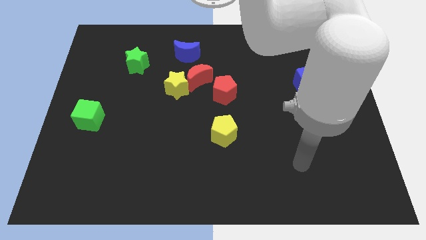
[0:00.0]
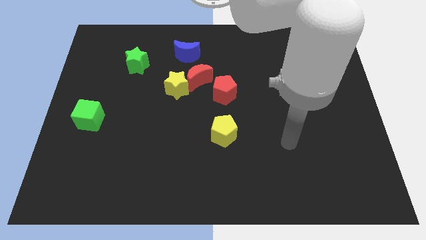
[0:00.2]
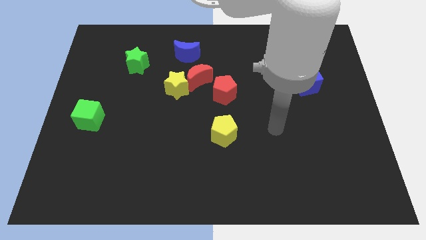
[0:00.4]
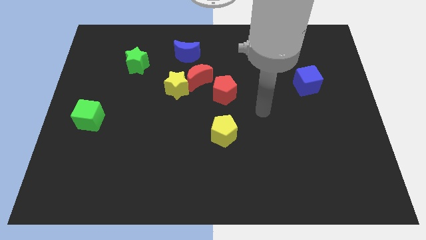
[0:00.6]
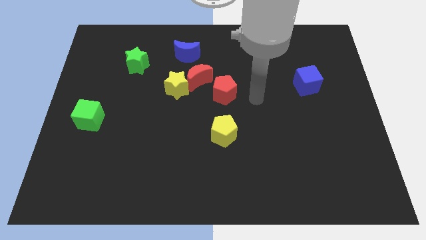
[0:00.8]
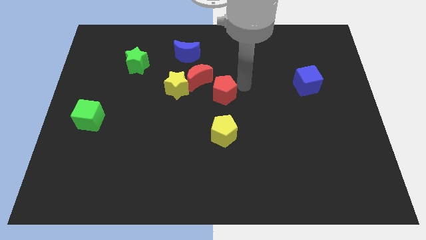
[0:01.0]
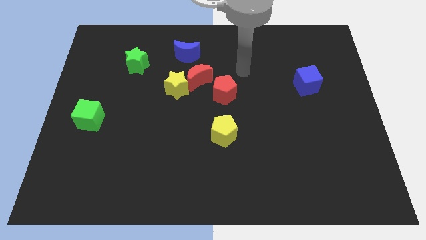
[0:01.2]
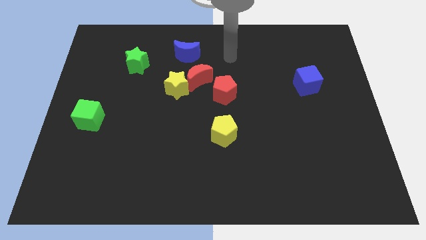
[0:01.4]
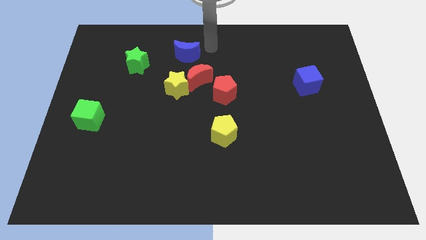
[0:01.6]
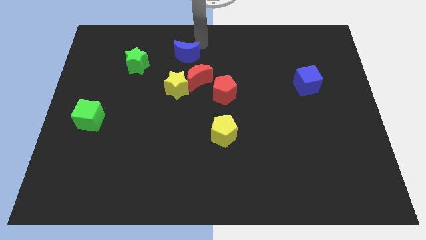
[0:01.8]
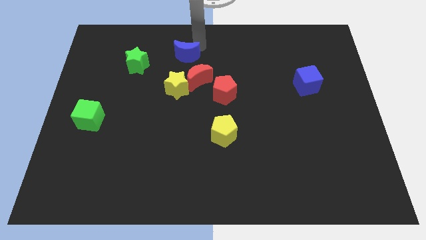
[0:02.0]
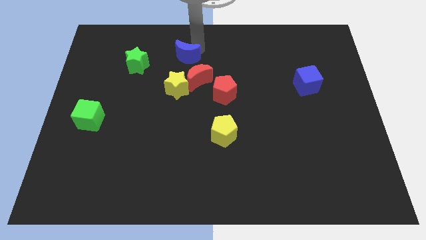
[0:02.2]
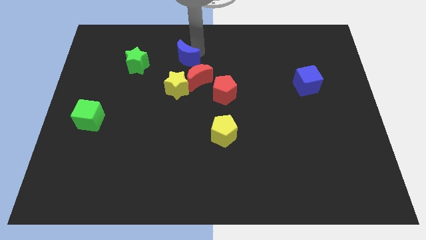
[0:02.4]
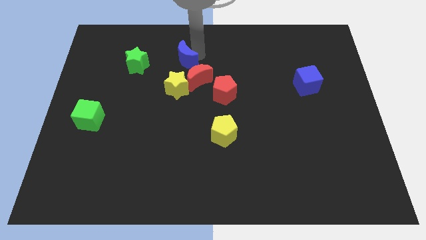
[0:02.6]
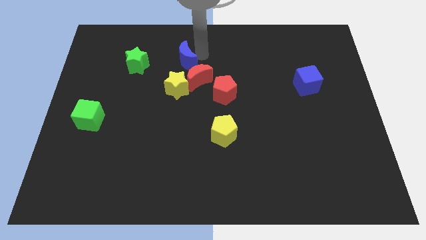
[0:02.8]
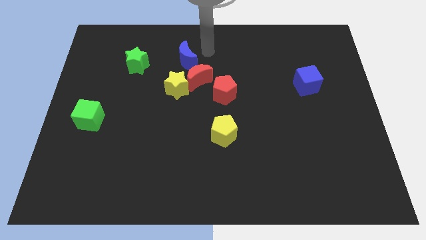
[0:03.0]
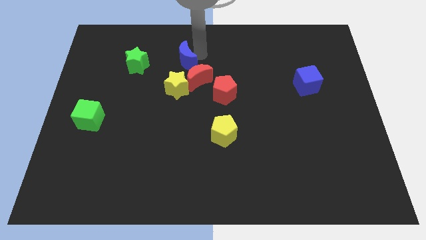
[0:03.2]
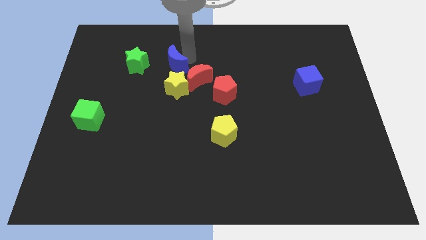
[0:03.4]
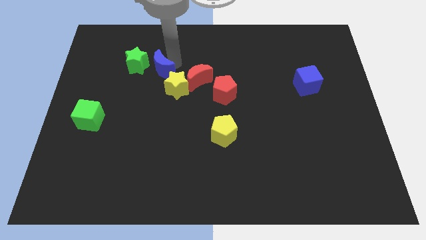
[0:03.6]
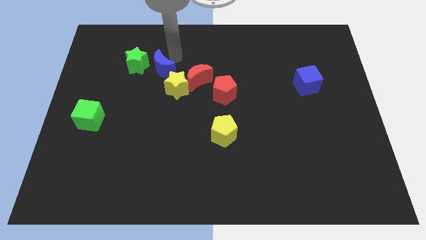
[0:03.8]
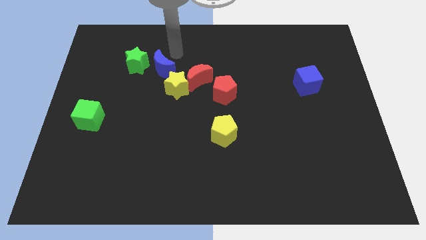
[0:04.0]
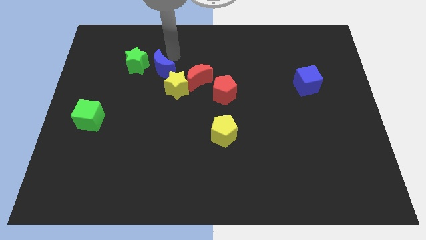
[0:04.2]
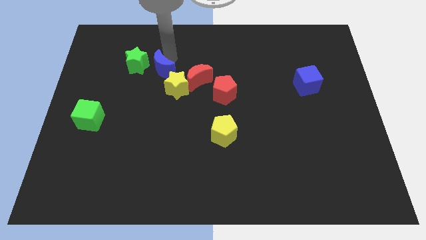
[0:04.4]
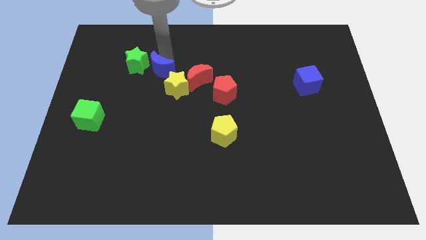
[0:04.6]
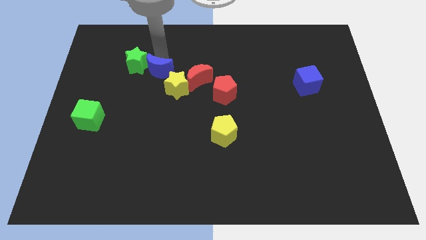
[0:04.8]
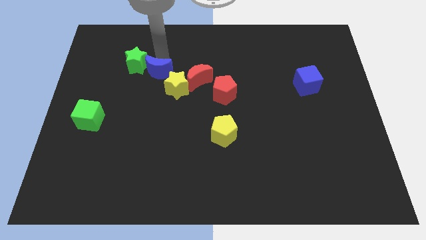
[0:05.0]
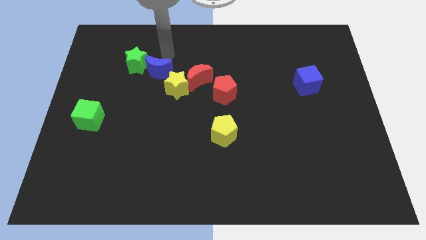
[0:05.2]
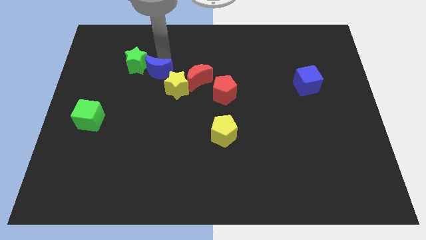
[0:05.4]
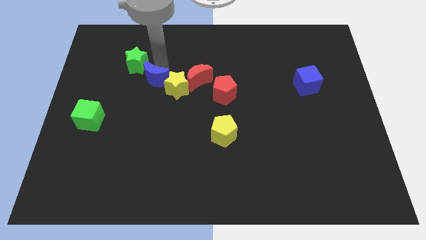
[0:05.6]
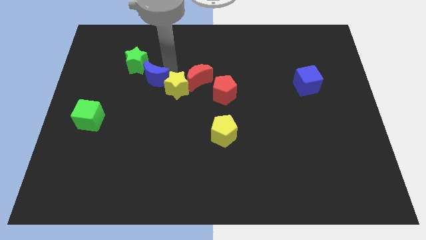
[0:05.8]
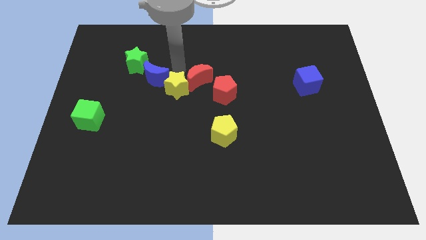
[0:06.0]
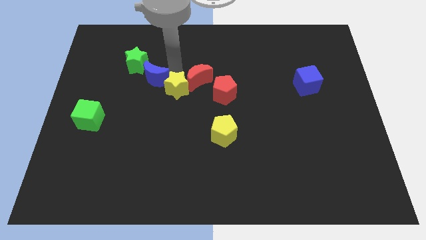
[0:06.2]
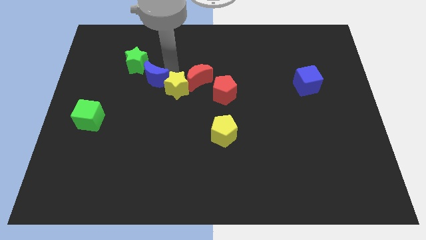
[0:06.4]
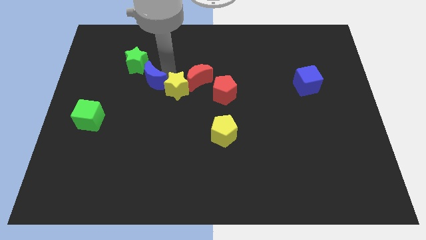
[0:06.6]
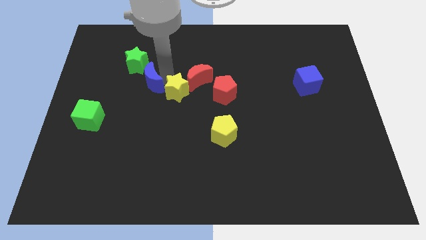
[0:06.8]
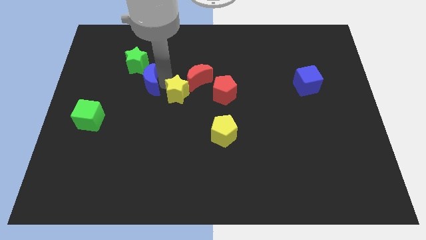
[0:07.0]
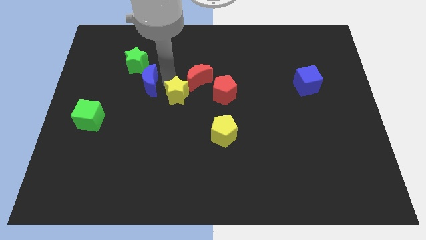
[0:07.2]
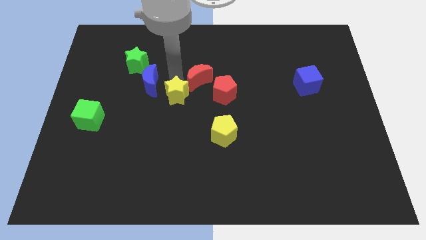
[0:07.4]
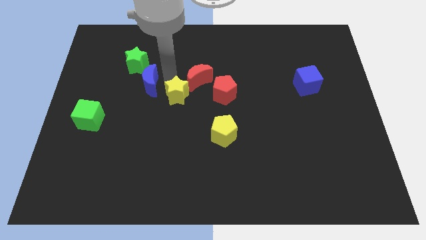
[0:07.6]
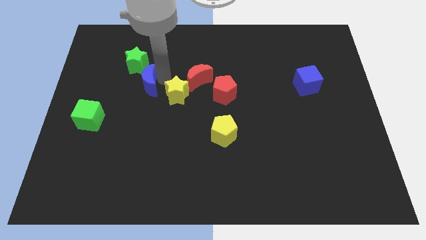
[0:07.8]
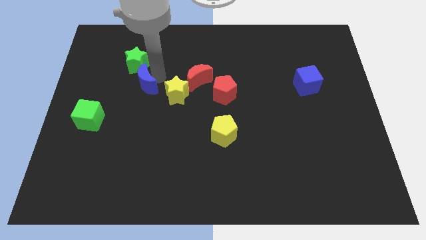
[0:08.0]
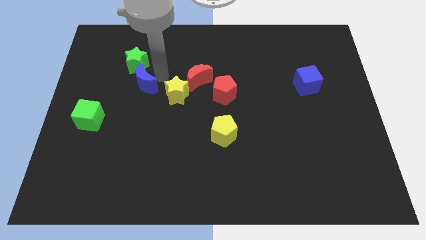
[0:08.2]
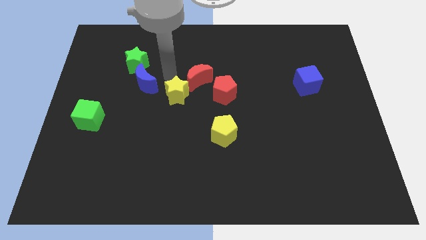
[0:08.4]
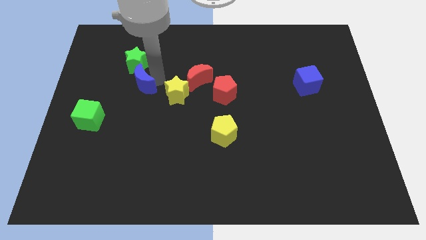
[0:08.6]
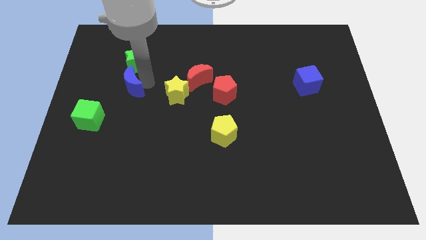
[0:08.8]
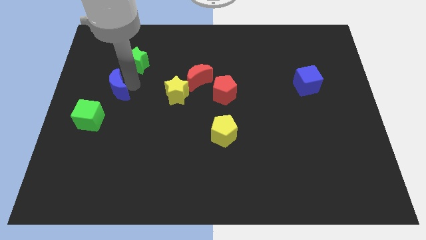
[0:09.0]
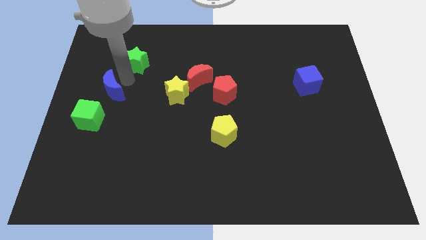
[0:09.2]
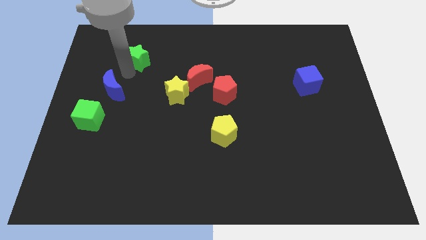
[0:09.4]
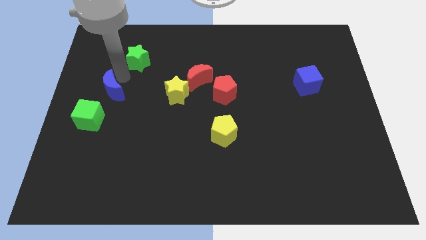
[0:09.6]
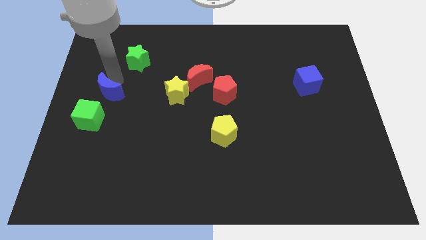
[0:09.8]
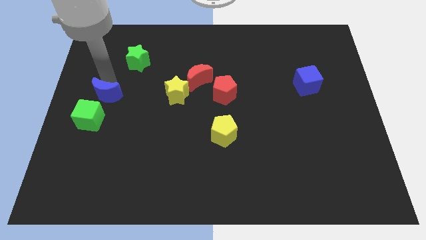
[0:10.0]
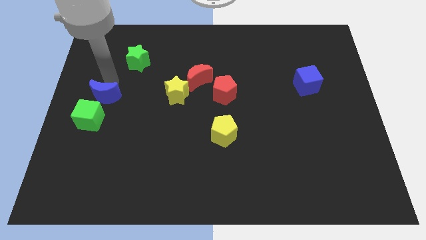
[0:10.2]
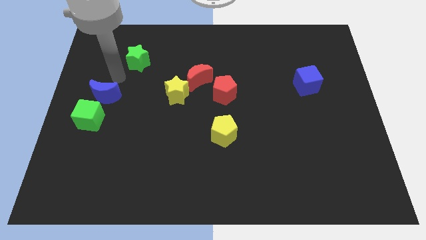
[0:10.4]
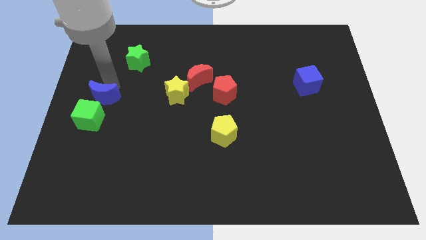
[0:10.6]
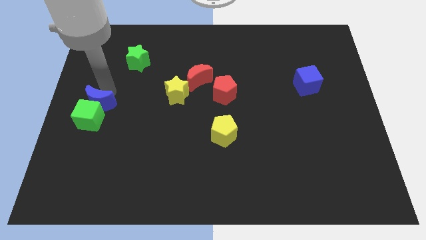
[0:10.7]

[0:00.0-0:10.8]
put the blue moon towards the green cube
